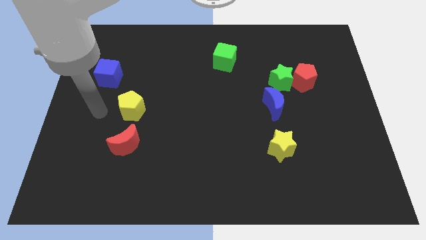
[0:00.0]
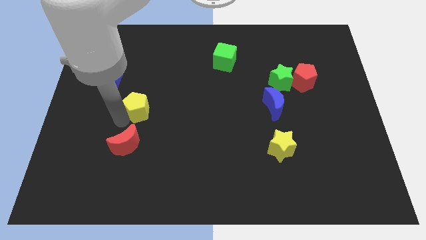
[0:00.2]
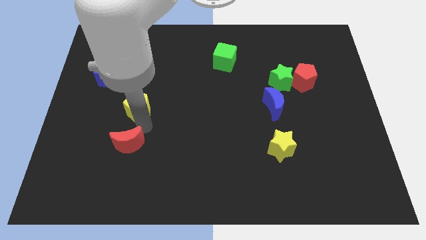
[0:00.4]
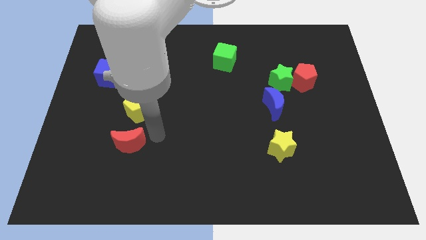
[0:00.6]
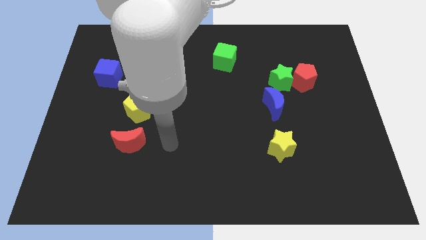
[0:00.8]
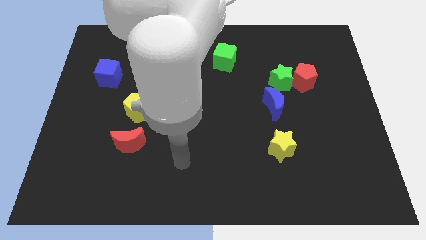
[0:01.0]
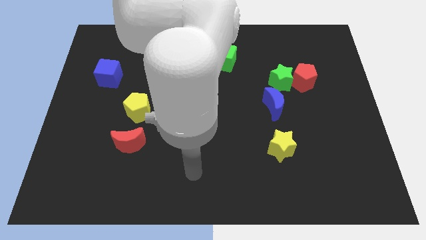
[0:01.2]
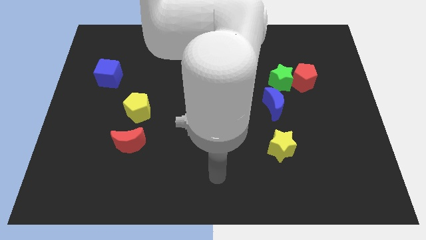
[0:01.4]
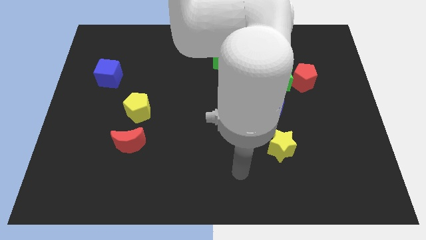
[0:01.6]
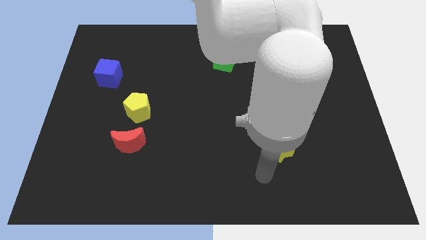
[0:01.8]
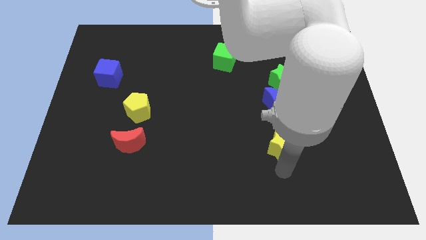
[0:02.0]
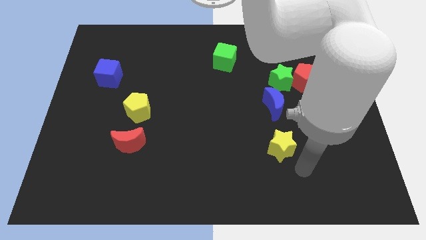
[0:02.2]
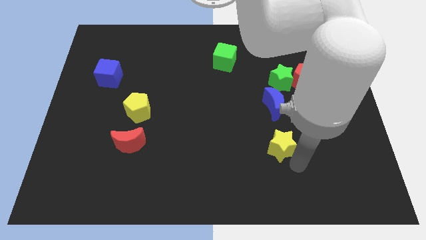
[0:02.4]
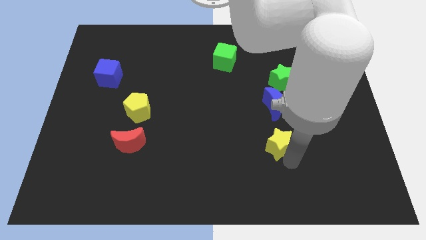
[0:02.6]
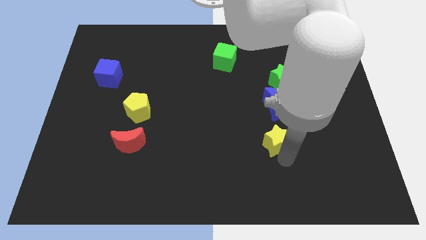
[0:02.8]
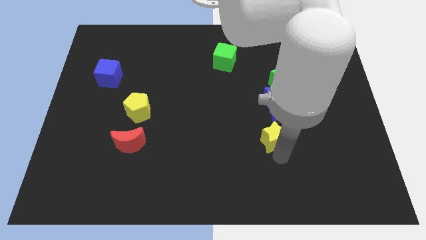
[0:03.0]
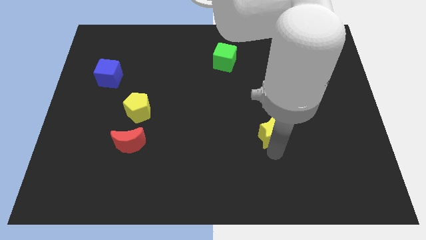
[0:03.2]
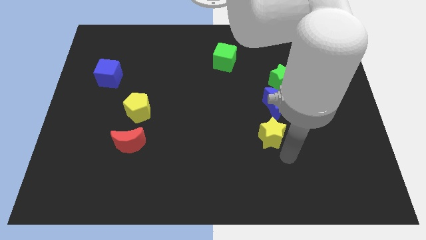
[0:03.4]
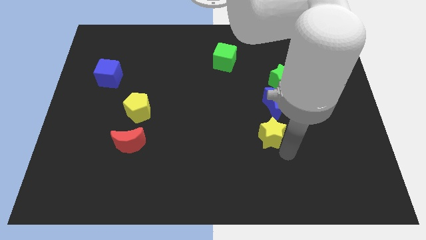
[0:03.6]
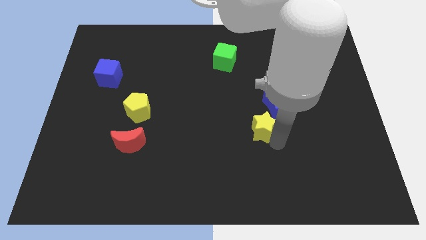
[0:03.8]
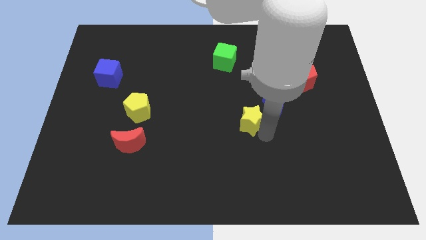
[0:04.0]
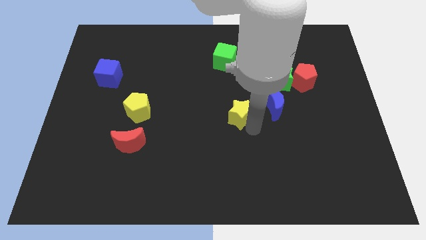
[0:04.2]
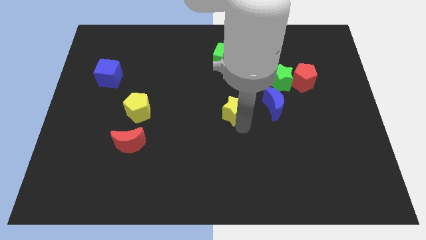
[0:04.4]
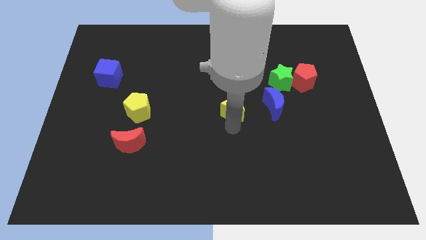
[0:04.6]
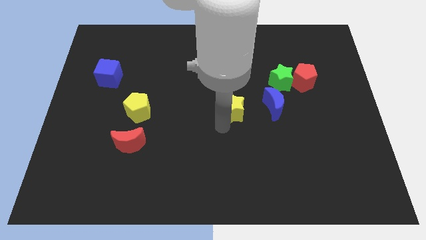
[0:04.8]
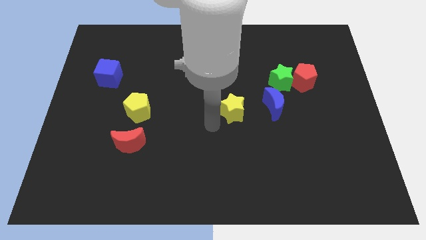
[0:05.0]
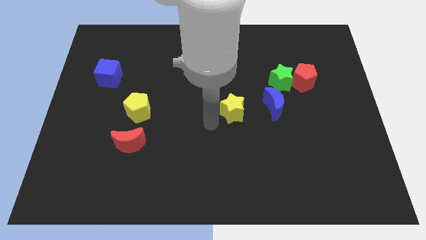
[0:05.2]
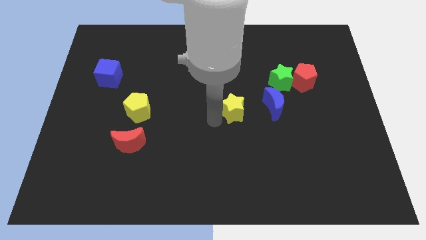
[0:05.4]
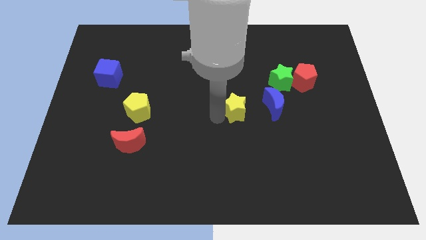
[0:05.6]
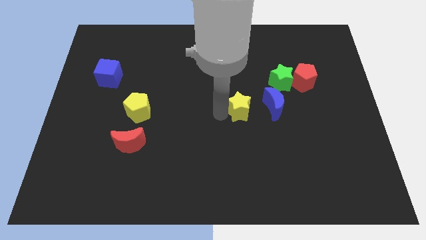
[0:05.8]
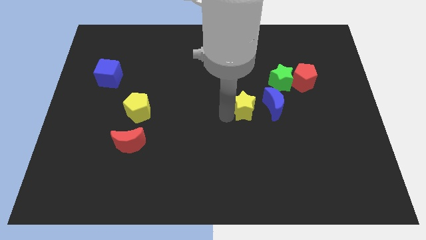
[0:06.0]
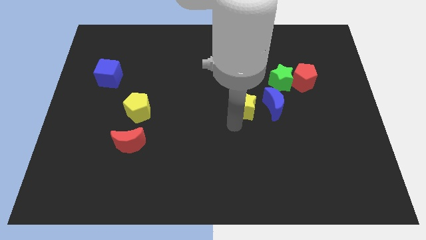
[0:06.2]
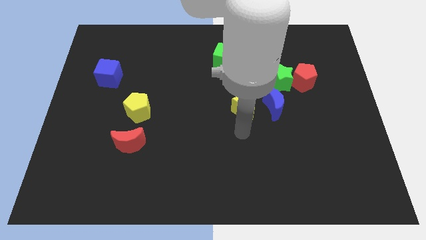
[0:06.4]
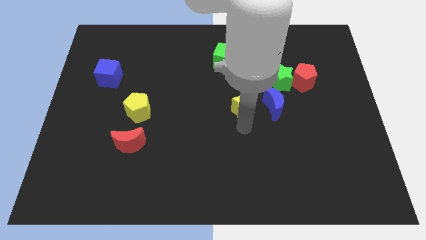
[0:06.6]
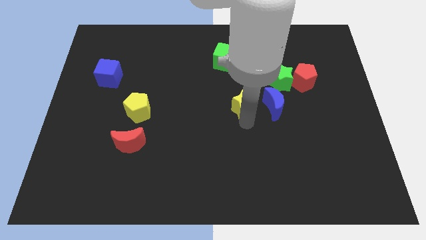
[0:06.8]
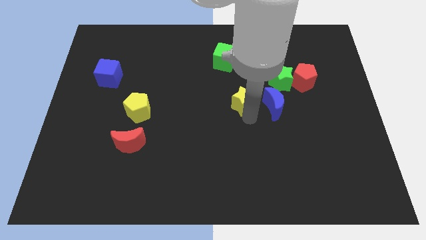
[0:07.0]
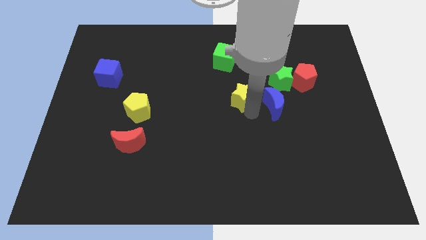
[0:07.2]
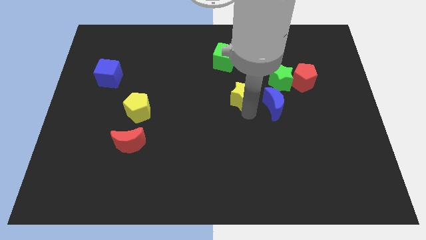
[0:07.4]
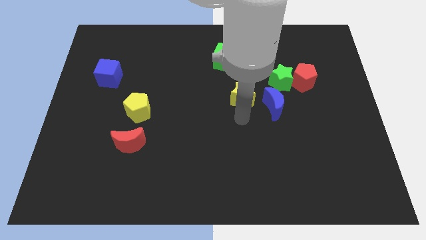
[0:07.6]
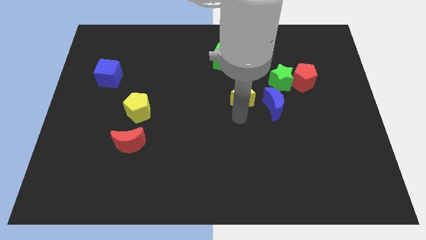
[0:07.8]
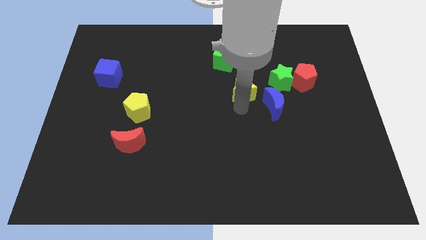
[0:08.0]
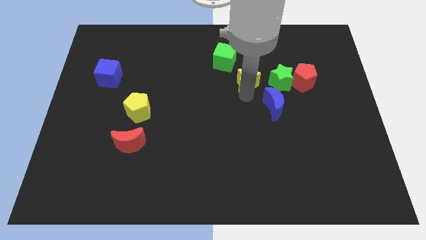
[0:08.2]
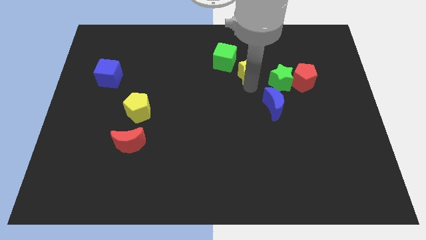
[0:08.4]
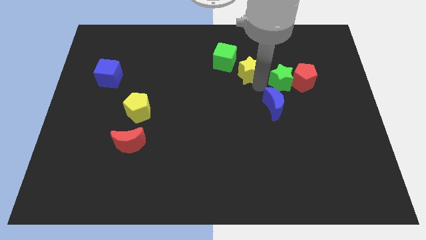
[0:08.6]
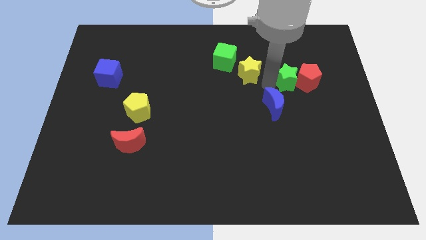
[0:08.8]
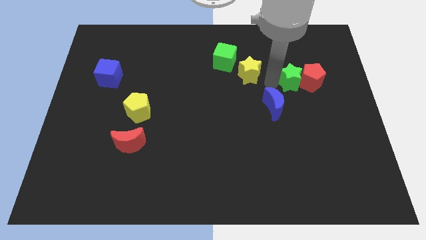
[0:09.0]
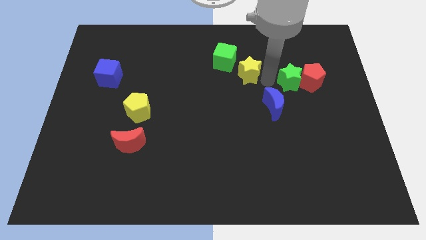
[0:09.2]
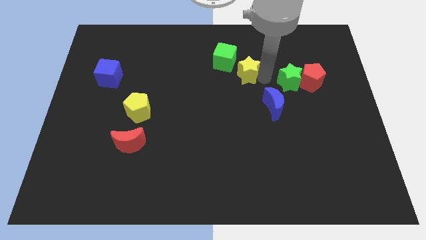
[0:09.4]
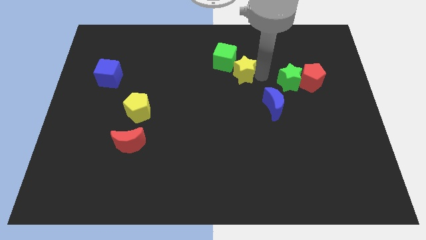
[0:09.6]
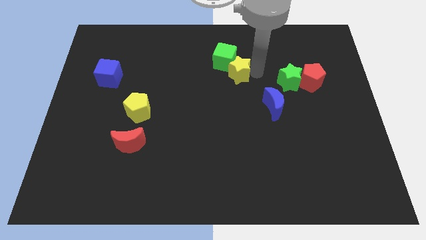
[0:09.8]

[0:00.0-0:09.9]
push the yellow star towards the green cube

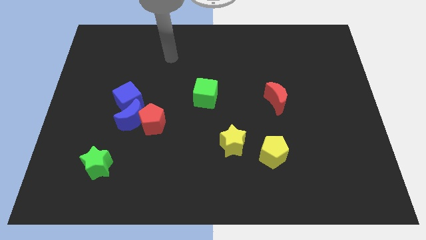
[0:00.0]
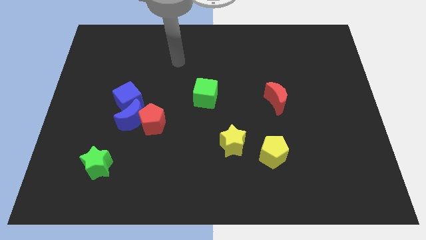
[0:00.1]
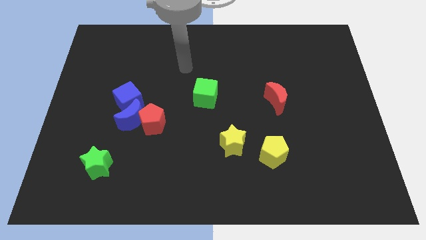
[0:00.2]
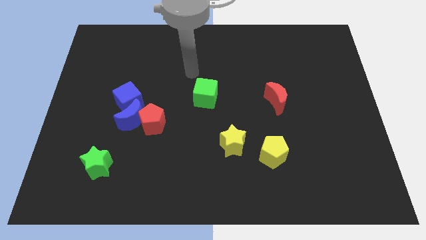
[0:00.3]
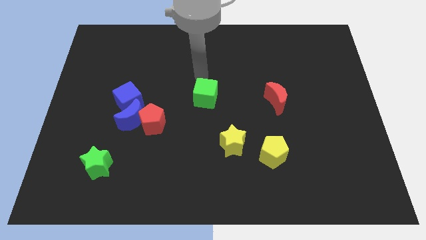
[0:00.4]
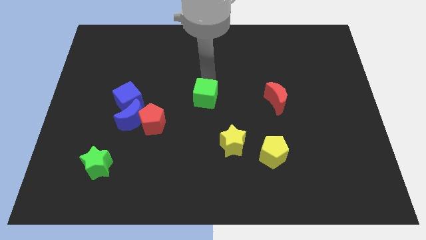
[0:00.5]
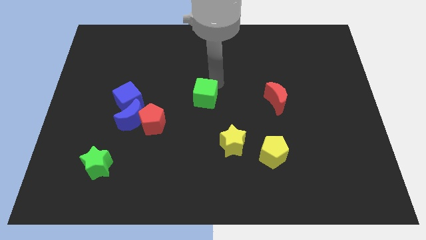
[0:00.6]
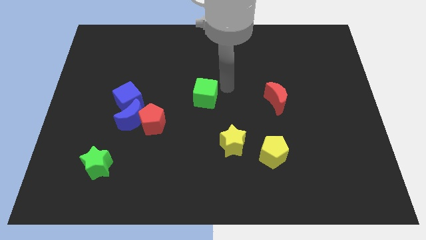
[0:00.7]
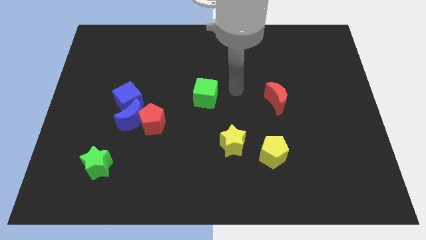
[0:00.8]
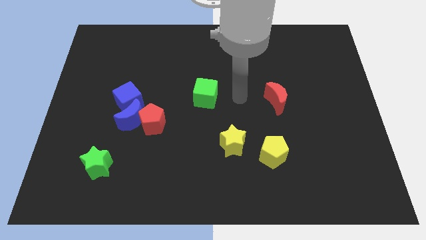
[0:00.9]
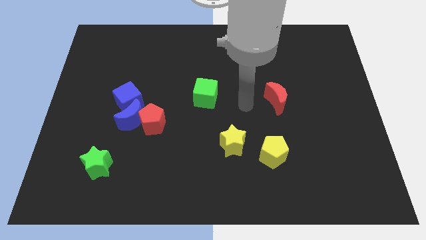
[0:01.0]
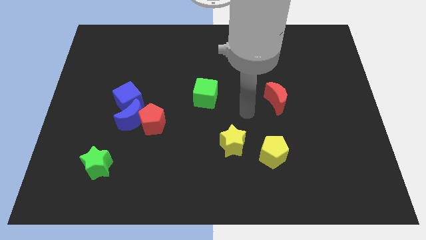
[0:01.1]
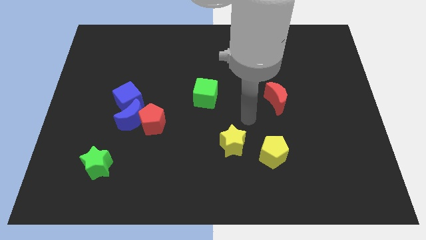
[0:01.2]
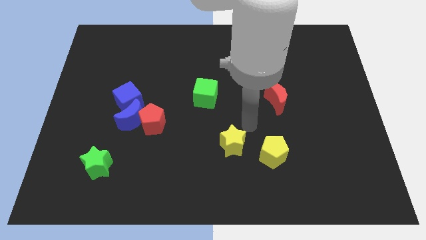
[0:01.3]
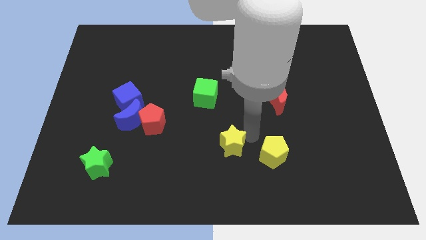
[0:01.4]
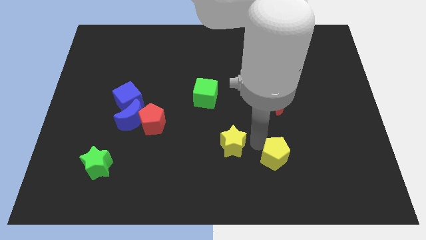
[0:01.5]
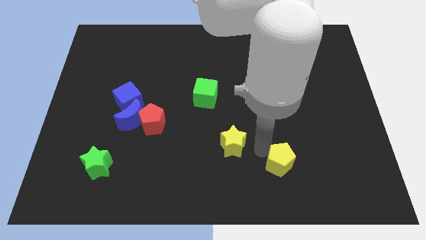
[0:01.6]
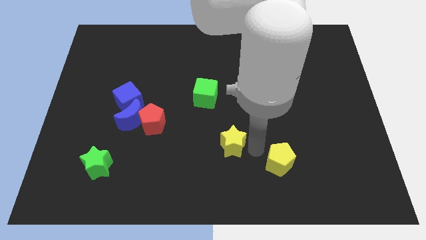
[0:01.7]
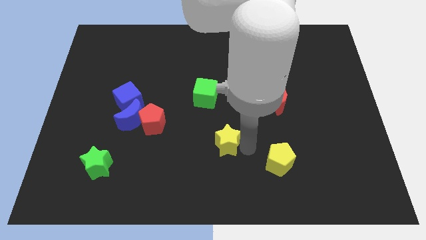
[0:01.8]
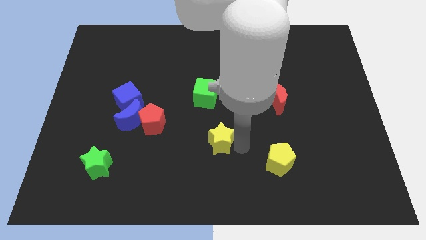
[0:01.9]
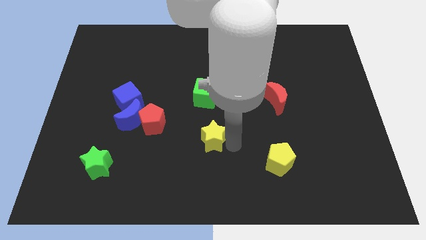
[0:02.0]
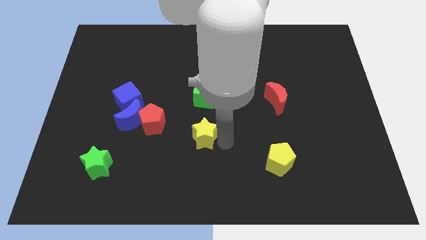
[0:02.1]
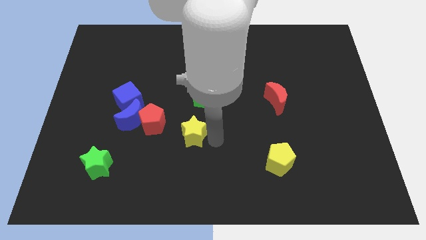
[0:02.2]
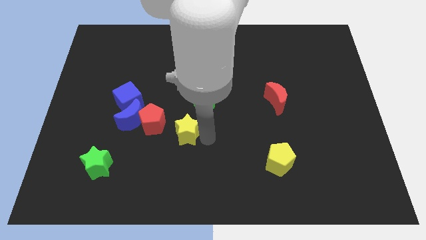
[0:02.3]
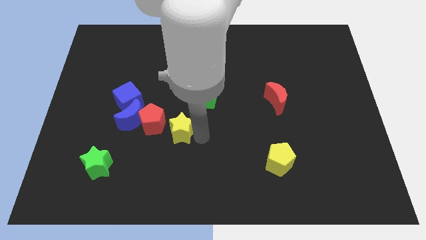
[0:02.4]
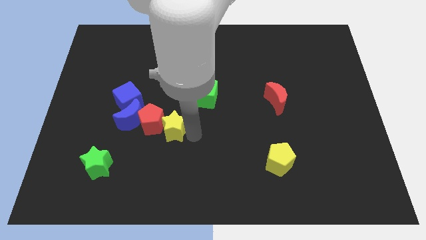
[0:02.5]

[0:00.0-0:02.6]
slide the yellow star to the red pentagon
